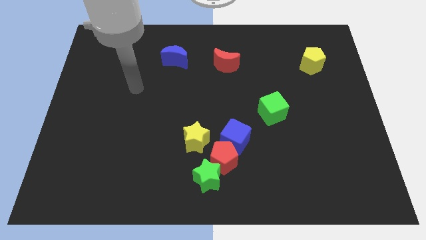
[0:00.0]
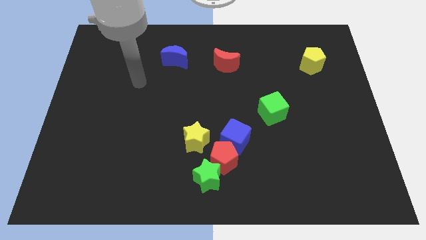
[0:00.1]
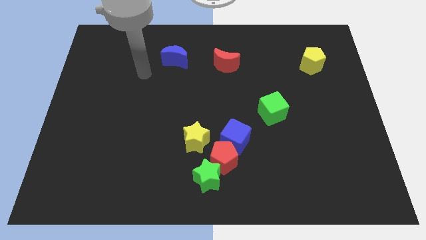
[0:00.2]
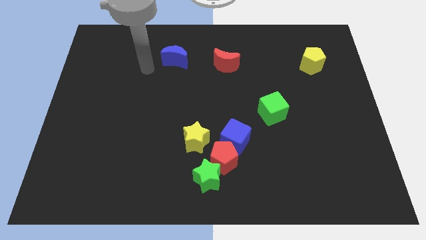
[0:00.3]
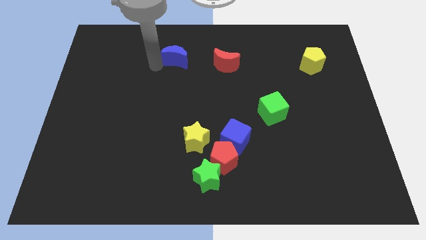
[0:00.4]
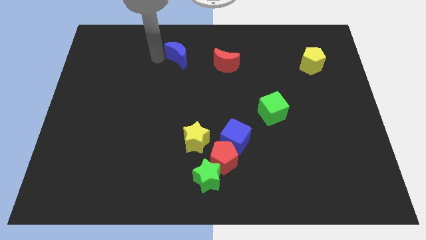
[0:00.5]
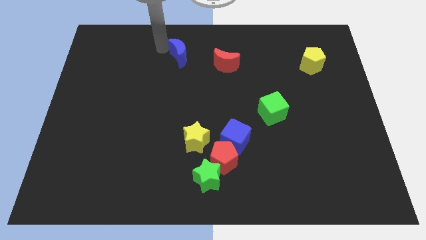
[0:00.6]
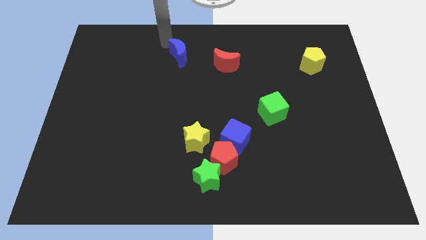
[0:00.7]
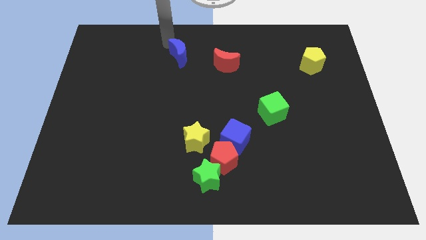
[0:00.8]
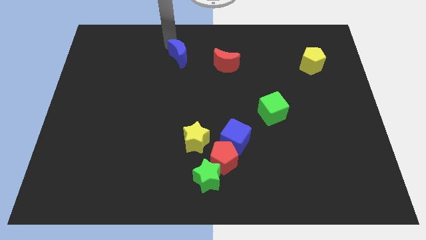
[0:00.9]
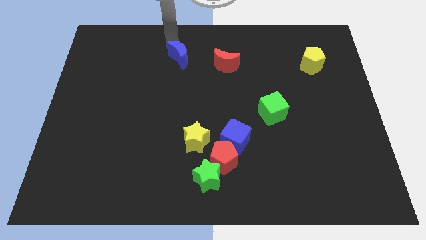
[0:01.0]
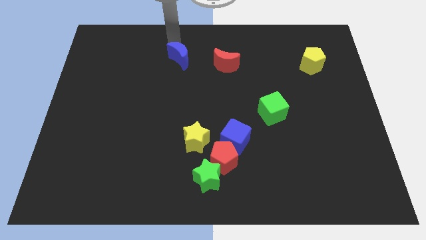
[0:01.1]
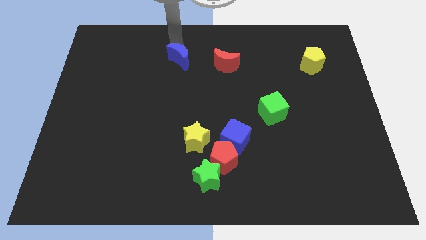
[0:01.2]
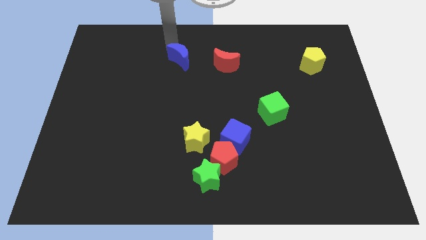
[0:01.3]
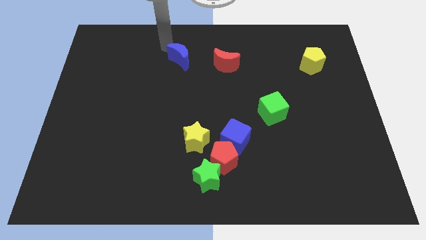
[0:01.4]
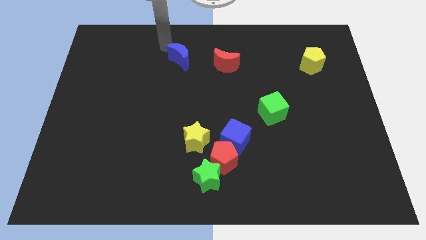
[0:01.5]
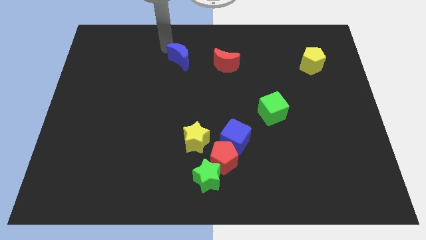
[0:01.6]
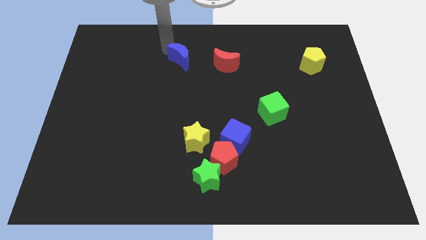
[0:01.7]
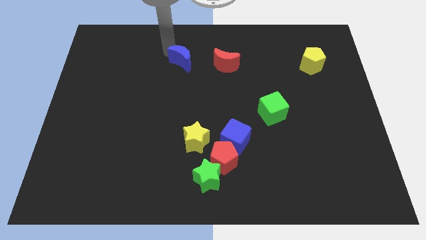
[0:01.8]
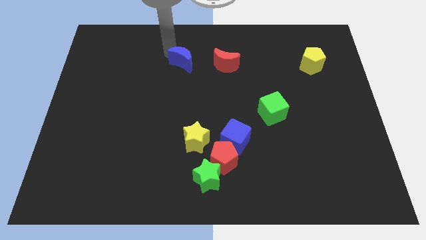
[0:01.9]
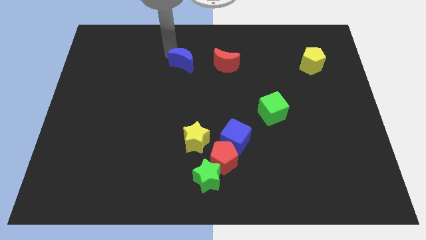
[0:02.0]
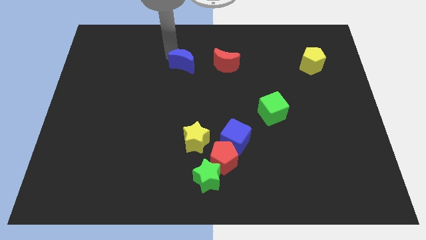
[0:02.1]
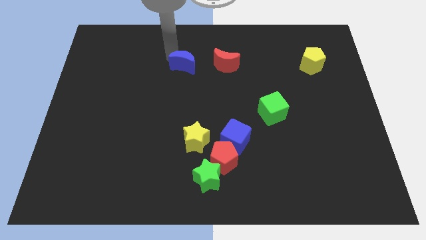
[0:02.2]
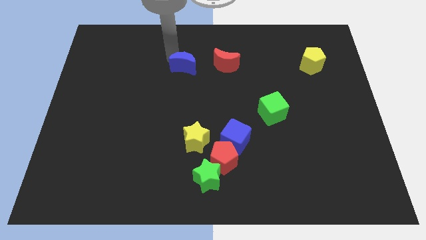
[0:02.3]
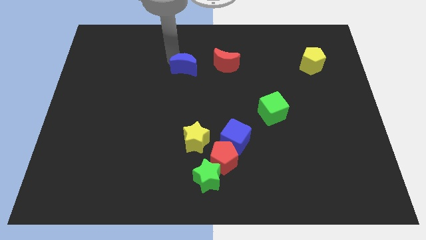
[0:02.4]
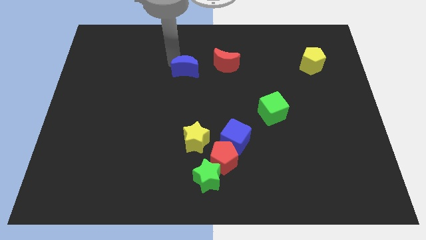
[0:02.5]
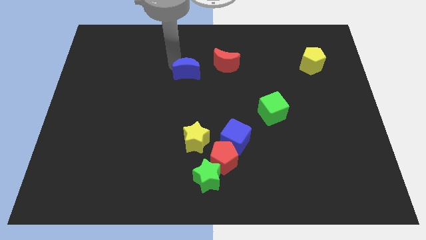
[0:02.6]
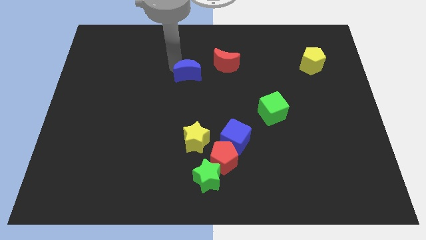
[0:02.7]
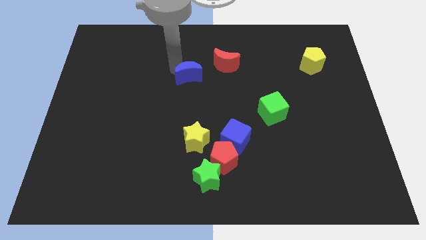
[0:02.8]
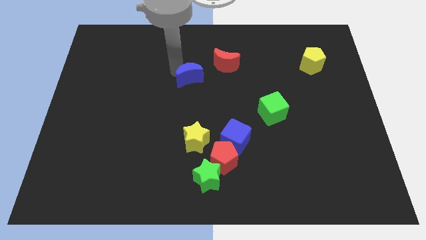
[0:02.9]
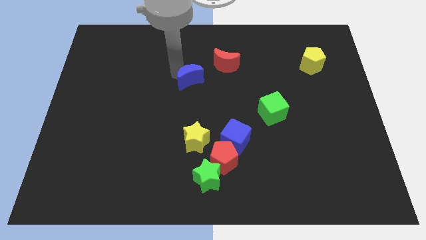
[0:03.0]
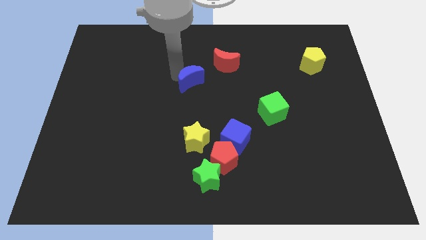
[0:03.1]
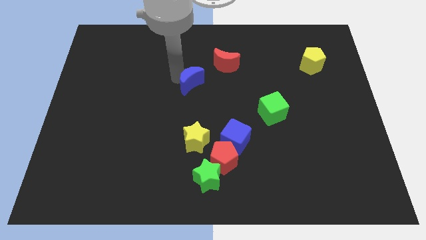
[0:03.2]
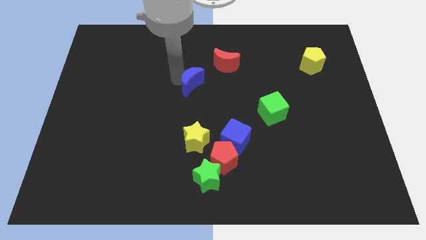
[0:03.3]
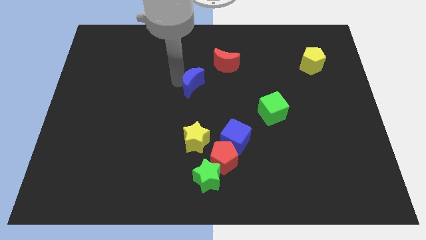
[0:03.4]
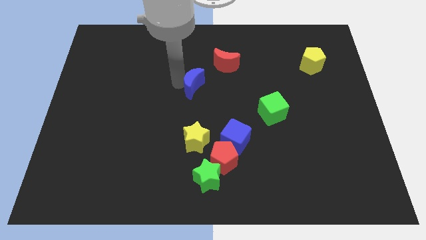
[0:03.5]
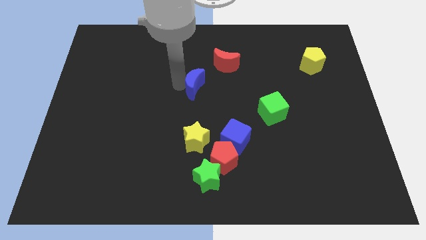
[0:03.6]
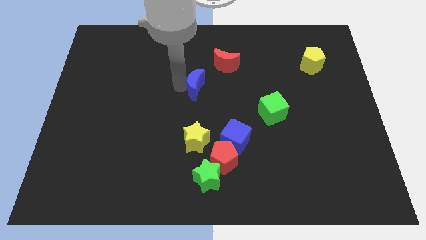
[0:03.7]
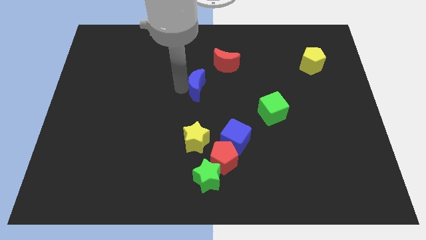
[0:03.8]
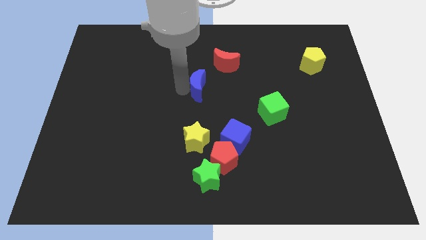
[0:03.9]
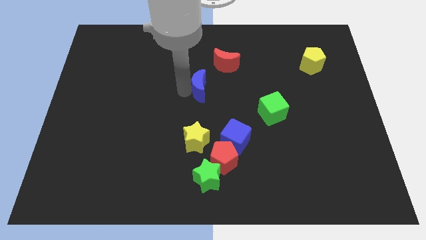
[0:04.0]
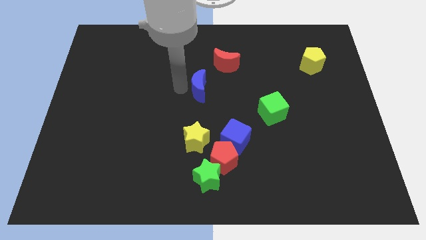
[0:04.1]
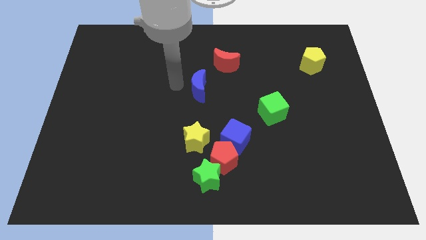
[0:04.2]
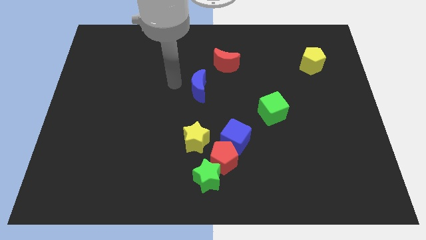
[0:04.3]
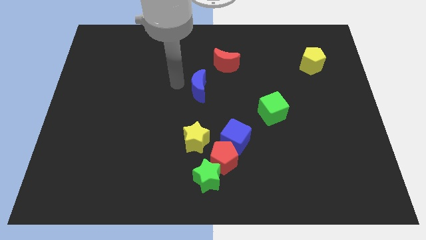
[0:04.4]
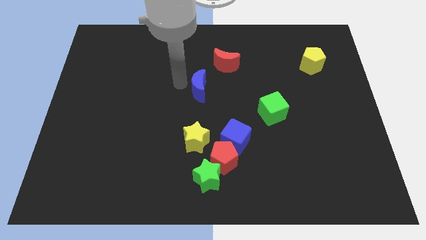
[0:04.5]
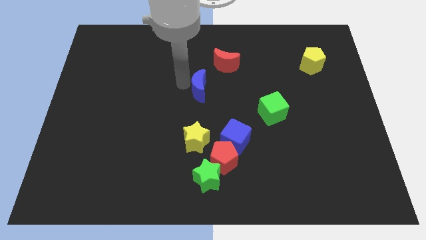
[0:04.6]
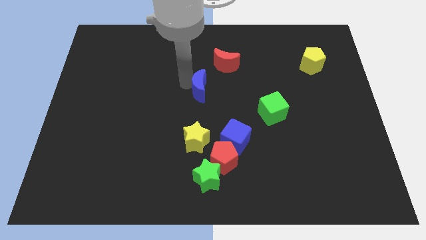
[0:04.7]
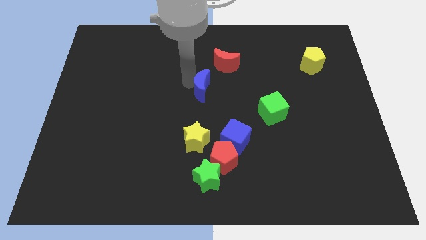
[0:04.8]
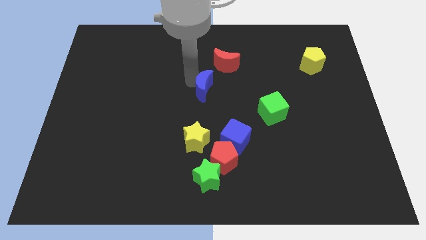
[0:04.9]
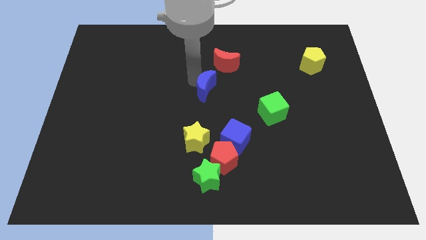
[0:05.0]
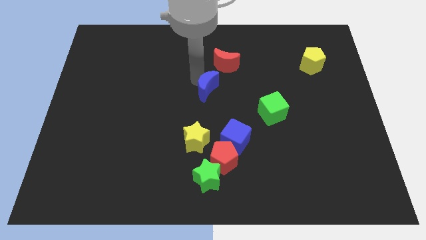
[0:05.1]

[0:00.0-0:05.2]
slide the blue moon to the bottom side of the red moon

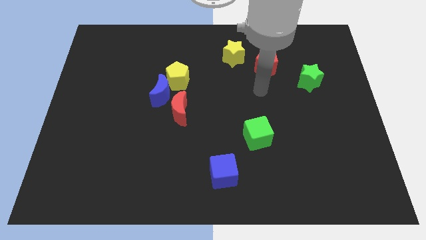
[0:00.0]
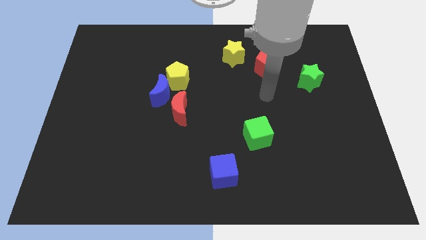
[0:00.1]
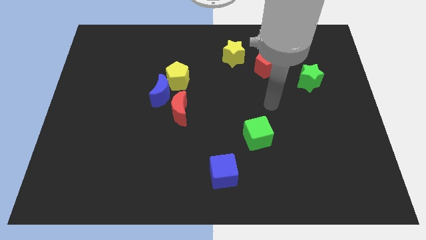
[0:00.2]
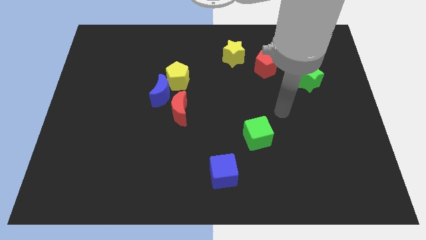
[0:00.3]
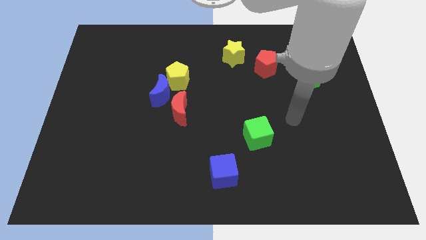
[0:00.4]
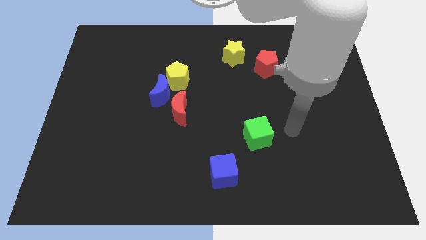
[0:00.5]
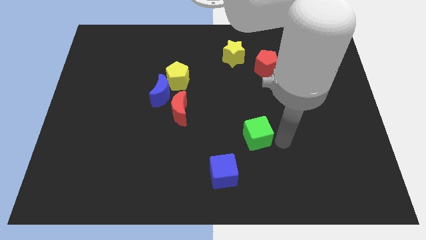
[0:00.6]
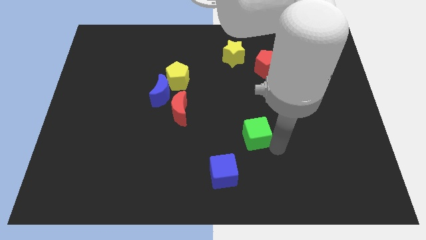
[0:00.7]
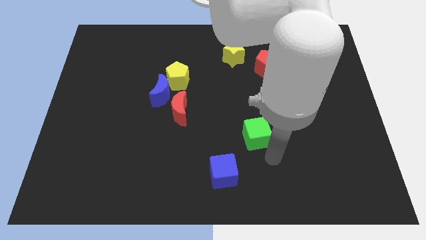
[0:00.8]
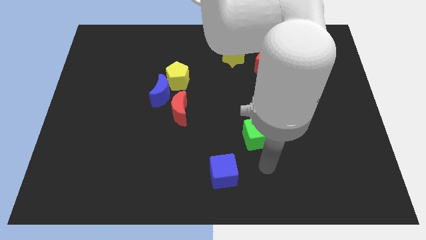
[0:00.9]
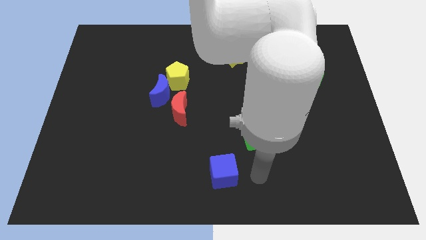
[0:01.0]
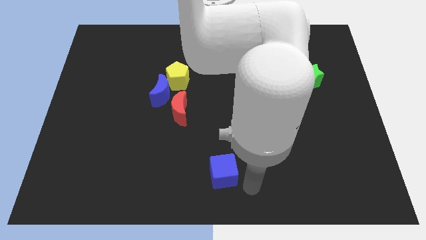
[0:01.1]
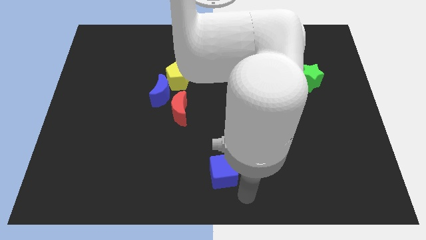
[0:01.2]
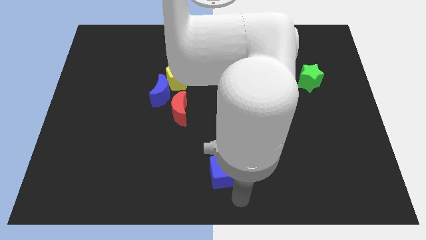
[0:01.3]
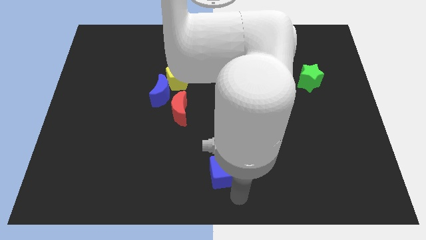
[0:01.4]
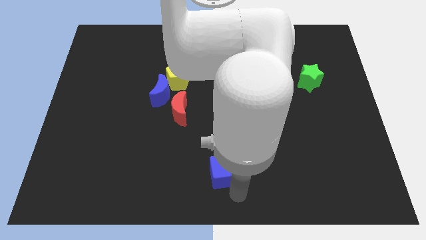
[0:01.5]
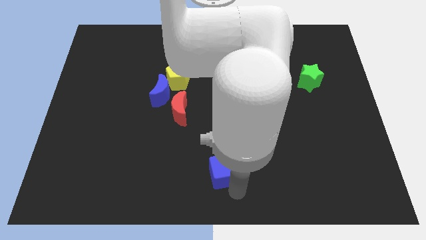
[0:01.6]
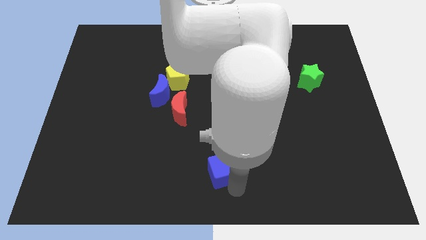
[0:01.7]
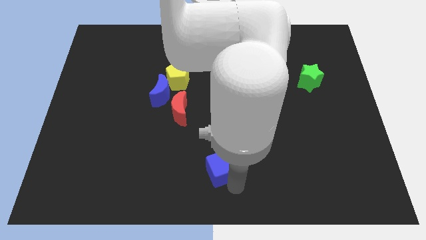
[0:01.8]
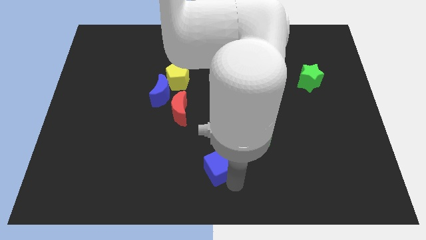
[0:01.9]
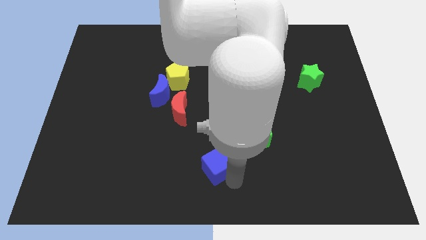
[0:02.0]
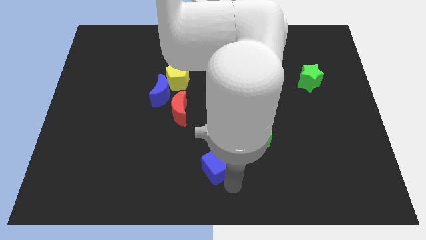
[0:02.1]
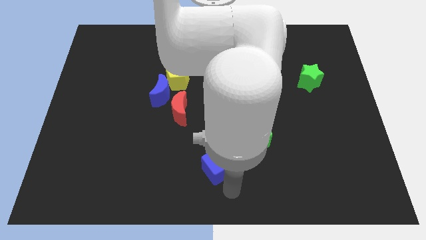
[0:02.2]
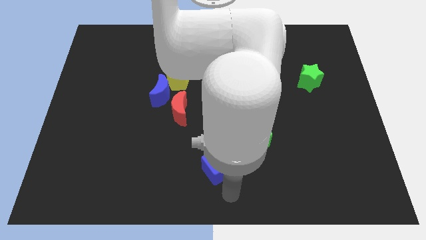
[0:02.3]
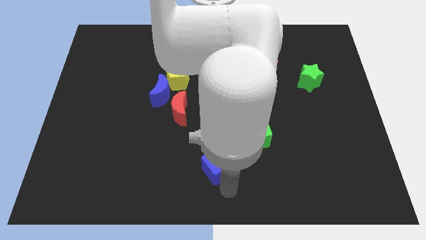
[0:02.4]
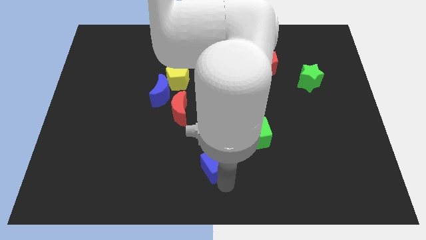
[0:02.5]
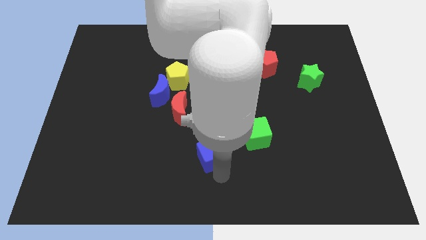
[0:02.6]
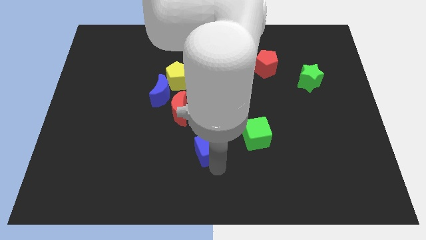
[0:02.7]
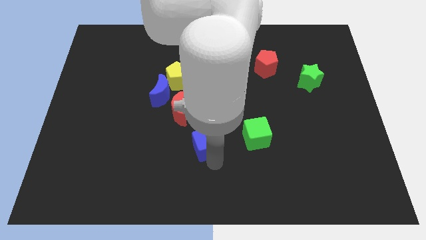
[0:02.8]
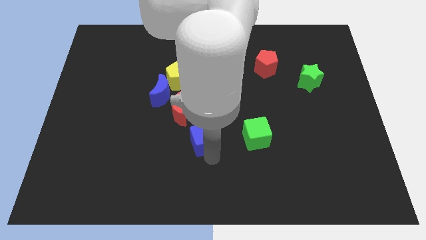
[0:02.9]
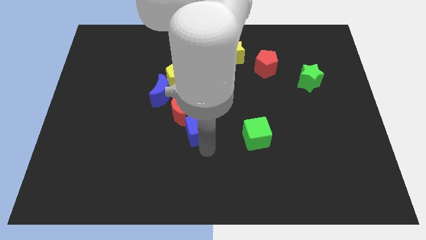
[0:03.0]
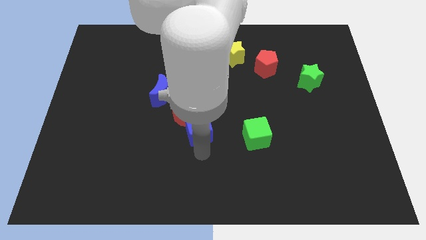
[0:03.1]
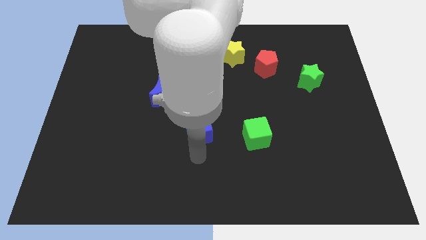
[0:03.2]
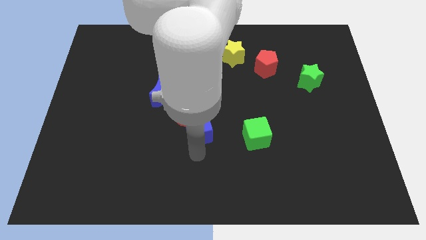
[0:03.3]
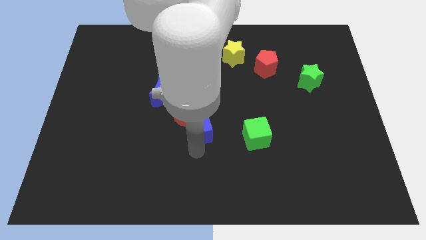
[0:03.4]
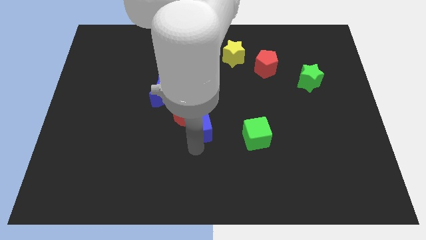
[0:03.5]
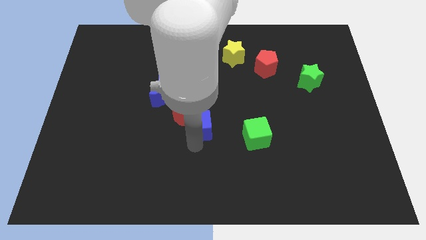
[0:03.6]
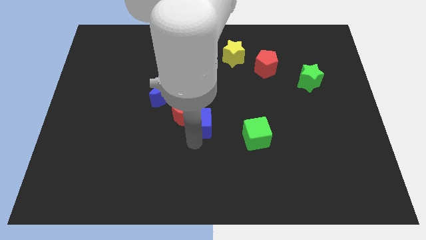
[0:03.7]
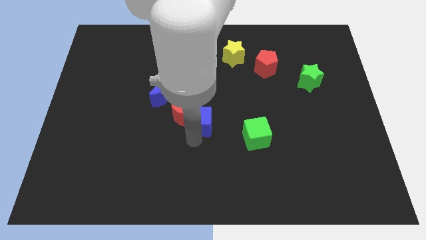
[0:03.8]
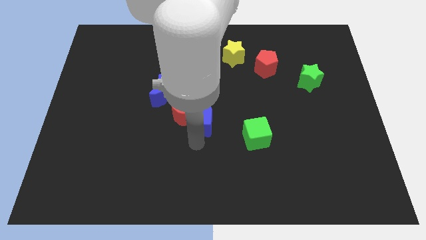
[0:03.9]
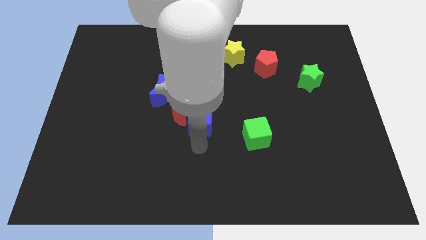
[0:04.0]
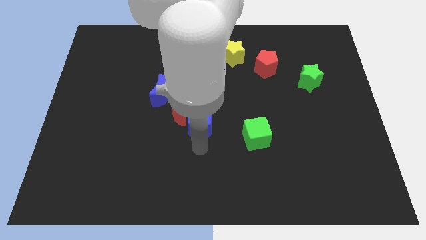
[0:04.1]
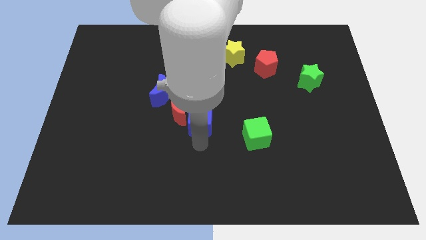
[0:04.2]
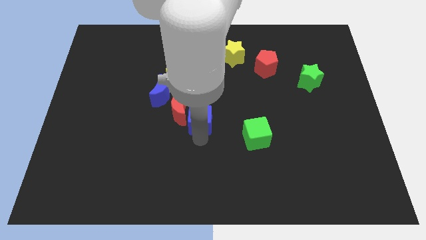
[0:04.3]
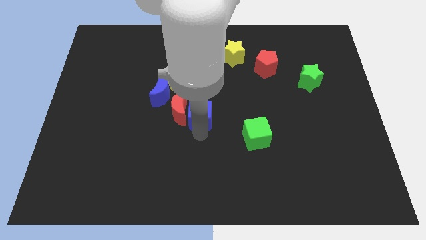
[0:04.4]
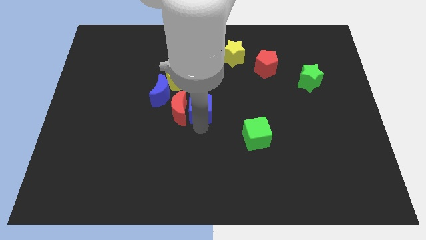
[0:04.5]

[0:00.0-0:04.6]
push the blue cube diagonally down and to the right of the yellow pentagon
